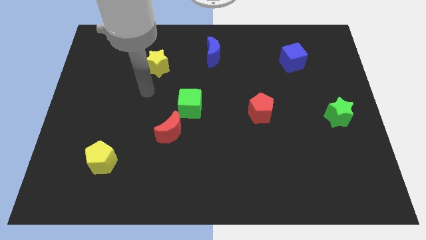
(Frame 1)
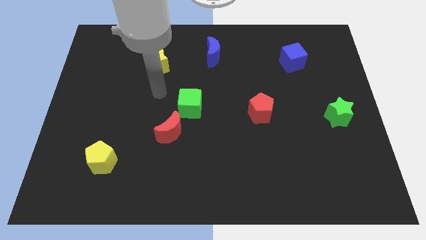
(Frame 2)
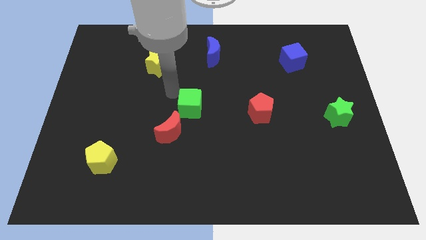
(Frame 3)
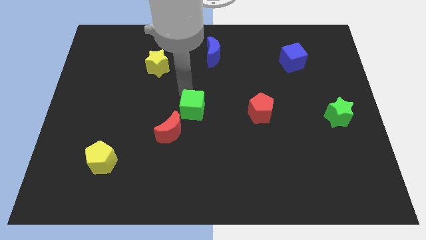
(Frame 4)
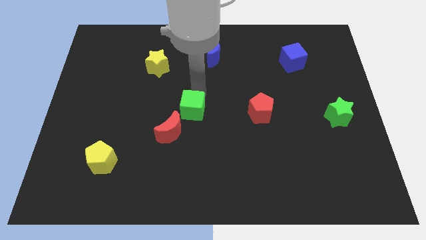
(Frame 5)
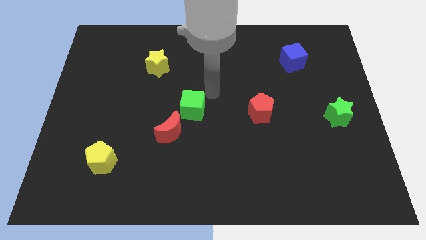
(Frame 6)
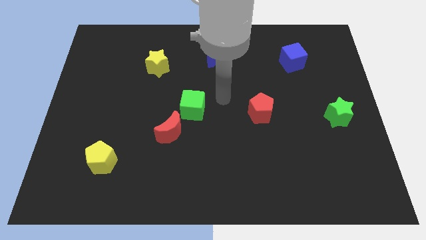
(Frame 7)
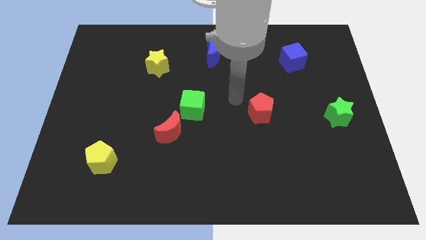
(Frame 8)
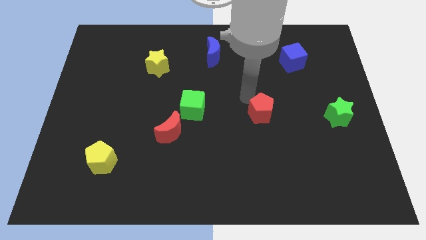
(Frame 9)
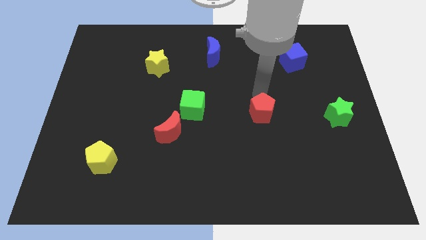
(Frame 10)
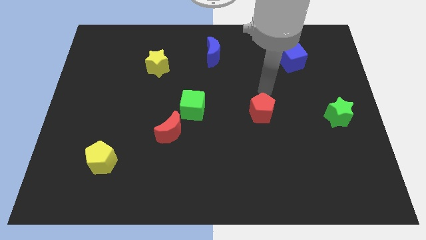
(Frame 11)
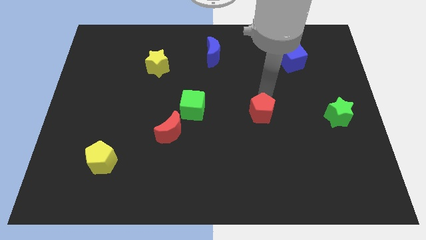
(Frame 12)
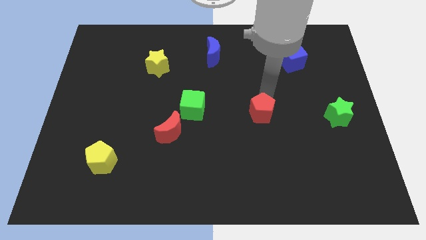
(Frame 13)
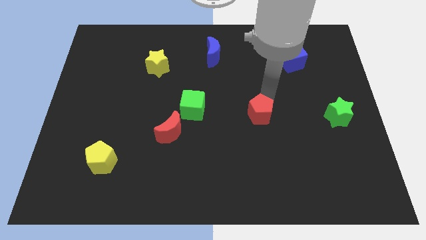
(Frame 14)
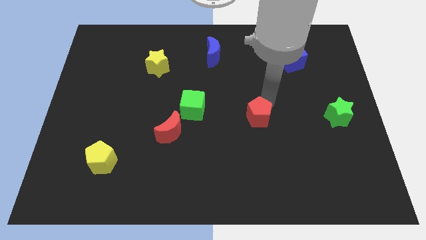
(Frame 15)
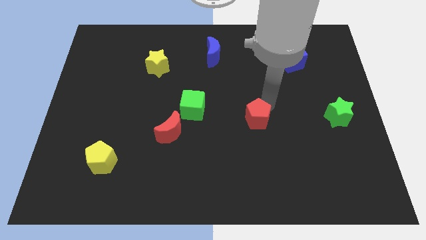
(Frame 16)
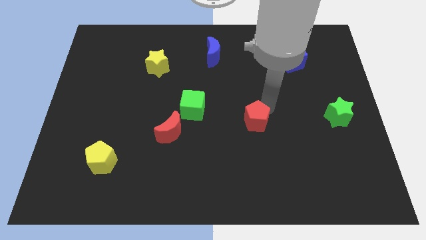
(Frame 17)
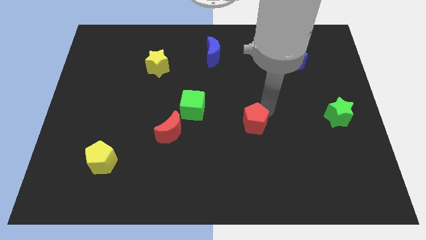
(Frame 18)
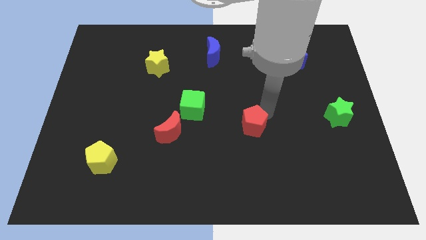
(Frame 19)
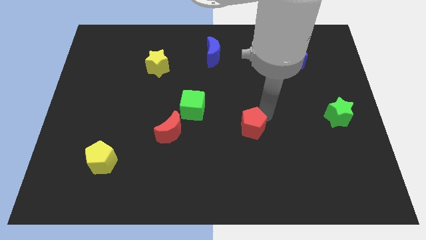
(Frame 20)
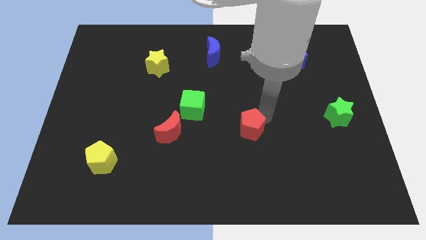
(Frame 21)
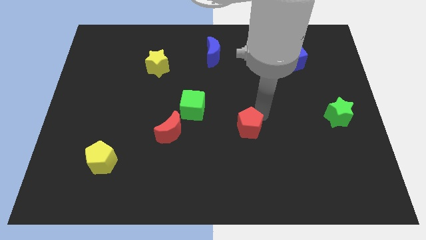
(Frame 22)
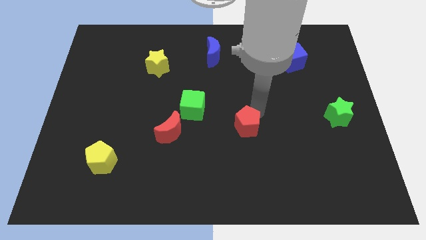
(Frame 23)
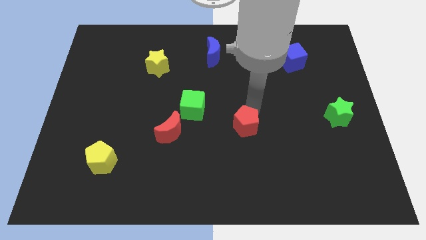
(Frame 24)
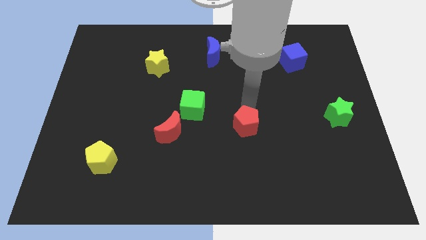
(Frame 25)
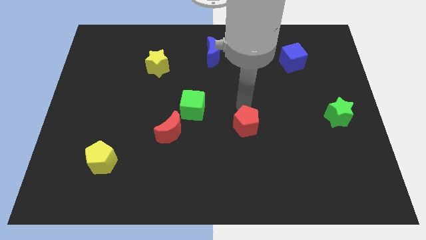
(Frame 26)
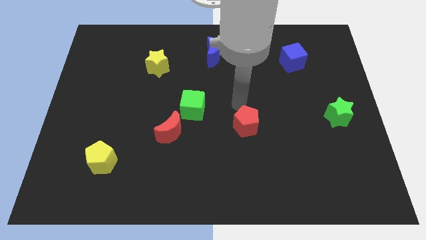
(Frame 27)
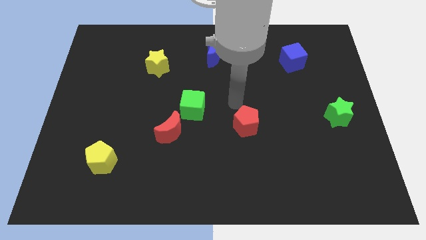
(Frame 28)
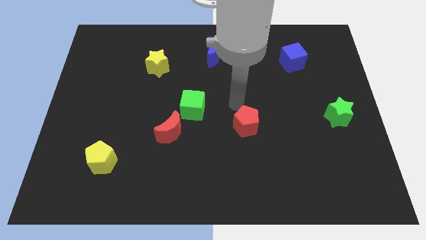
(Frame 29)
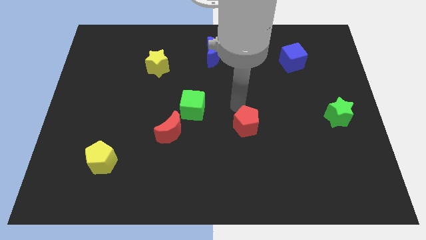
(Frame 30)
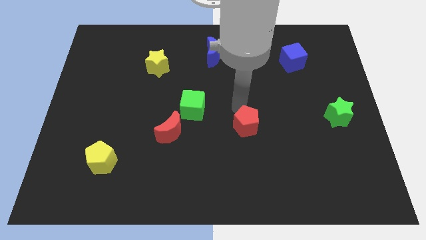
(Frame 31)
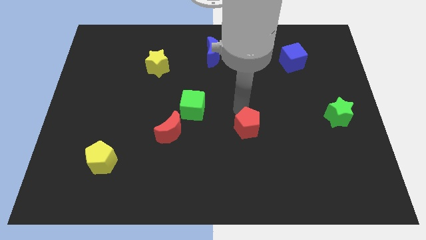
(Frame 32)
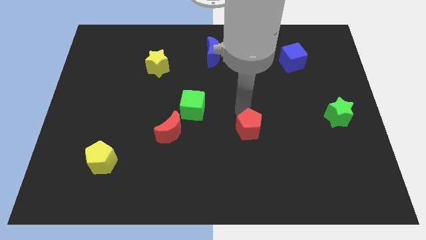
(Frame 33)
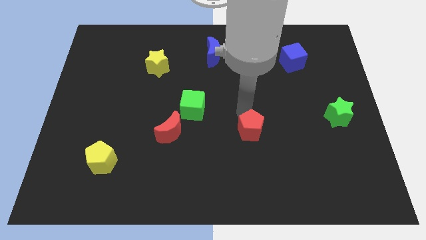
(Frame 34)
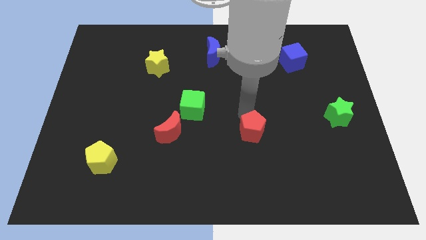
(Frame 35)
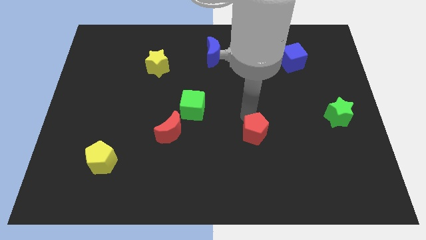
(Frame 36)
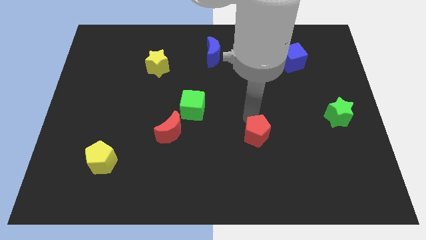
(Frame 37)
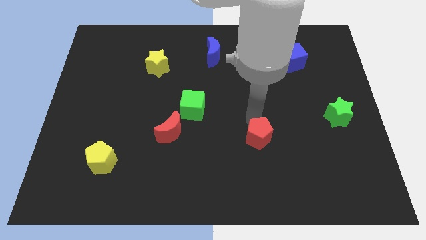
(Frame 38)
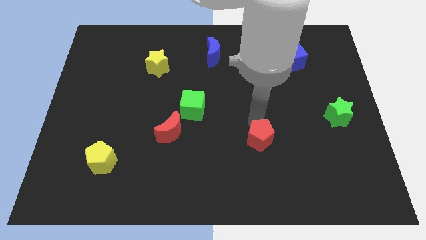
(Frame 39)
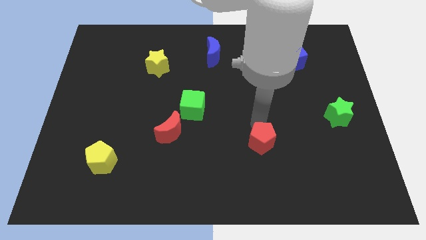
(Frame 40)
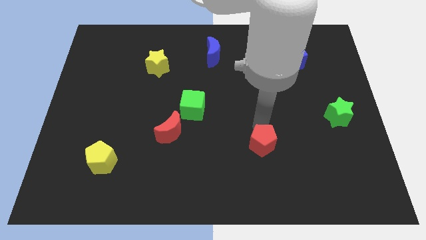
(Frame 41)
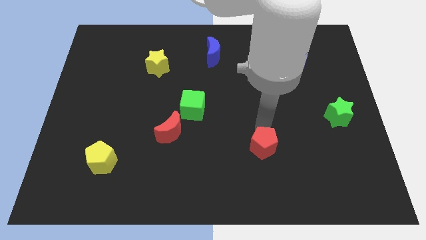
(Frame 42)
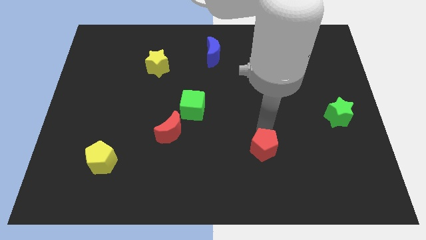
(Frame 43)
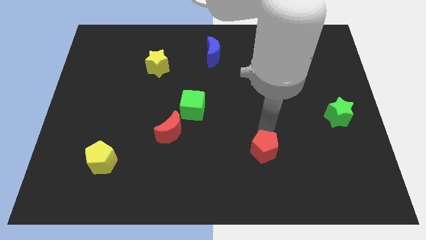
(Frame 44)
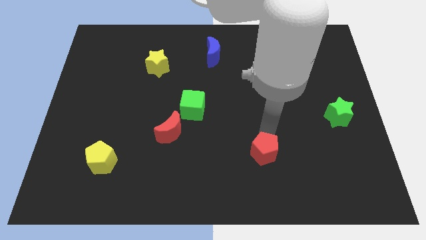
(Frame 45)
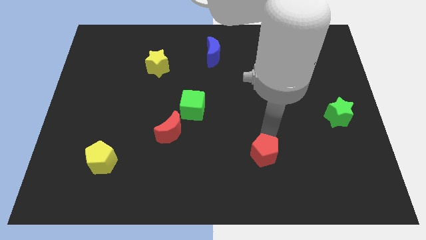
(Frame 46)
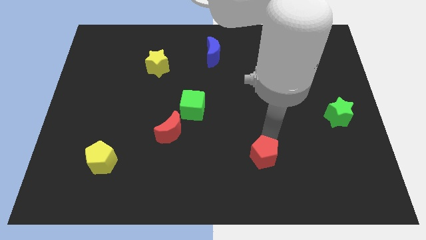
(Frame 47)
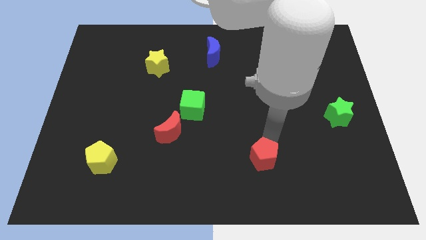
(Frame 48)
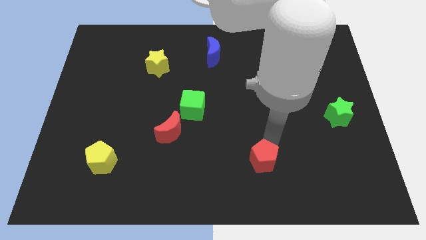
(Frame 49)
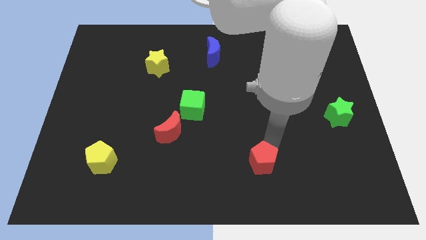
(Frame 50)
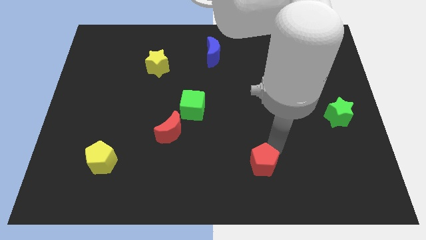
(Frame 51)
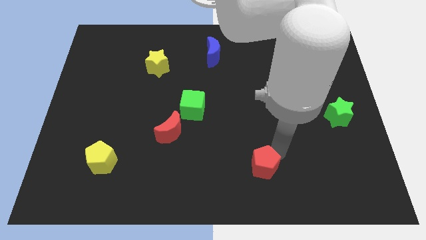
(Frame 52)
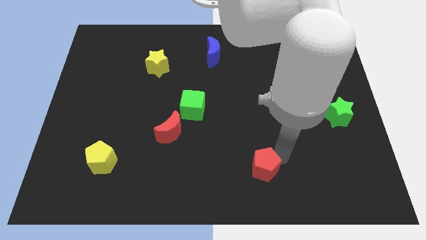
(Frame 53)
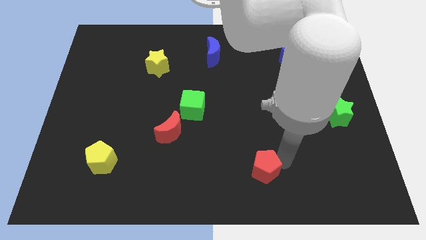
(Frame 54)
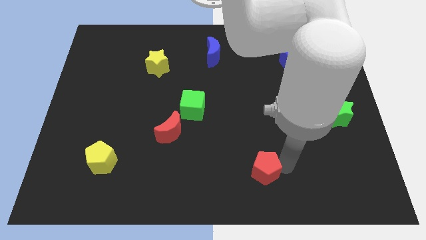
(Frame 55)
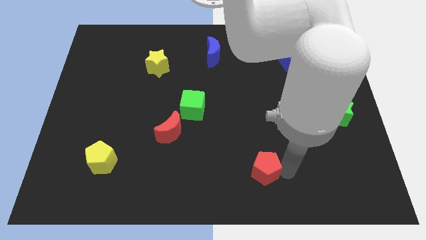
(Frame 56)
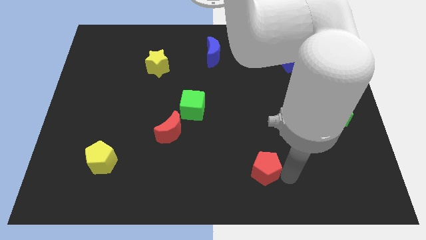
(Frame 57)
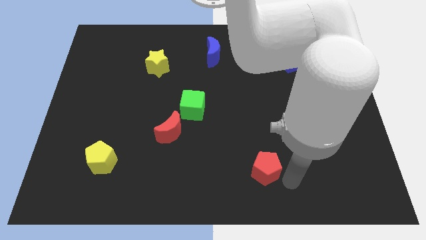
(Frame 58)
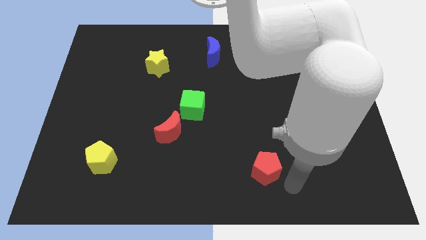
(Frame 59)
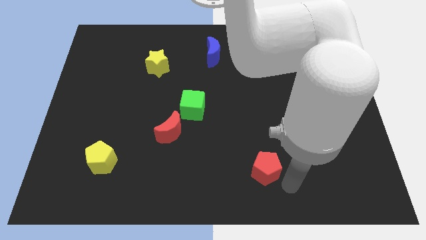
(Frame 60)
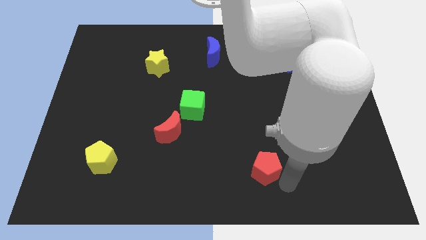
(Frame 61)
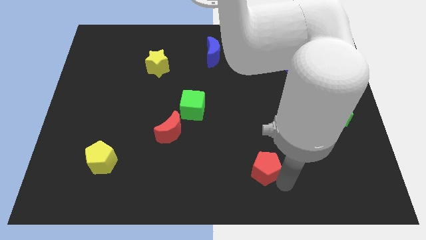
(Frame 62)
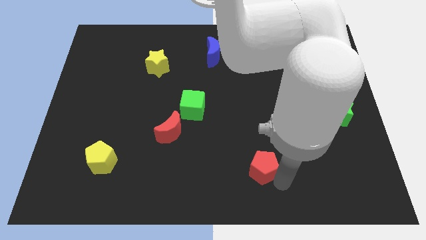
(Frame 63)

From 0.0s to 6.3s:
move the red pentagon to the bottom side
